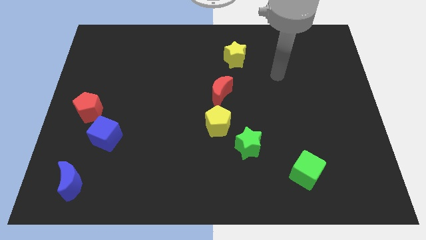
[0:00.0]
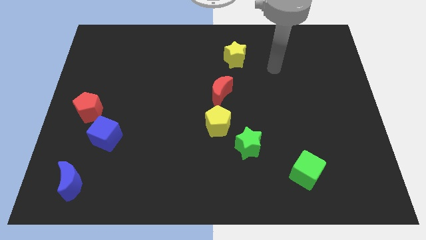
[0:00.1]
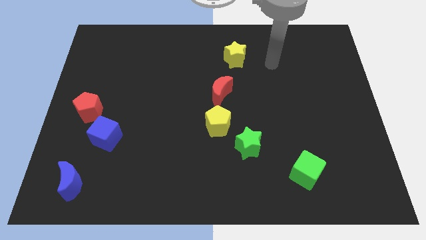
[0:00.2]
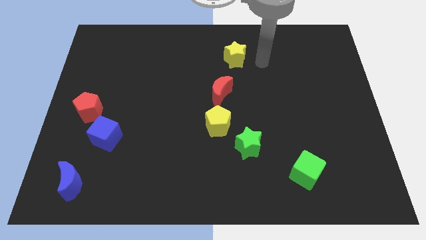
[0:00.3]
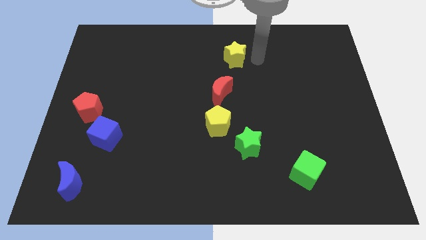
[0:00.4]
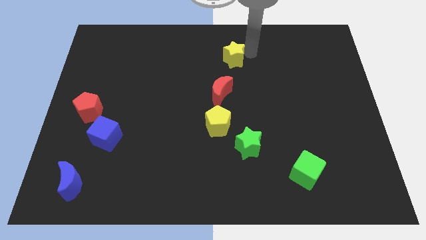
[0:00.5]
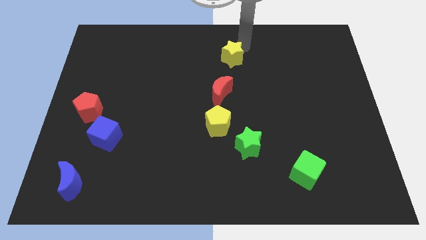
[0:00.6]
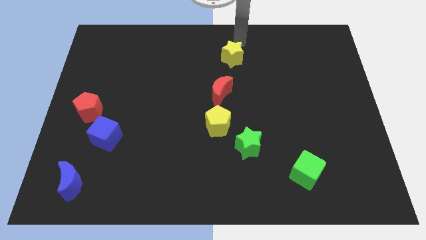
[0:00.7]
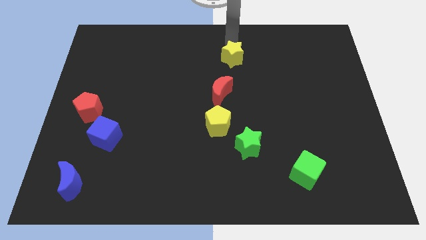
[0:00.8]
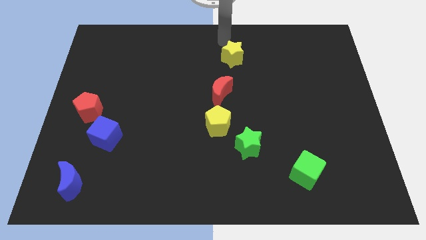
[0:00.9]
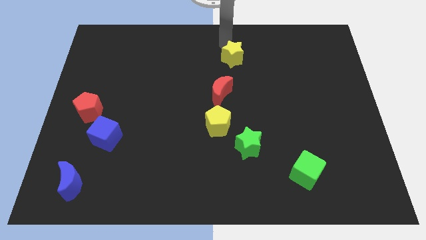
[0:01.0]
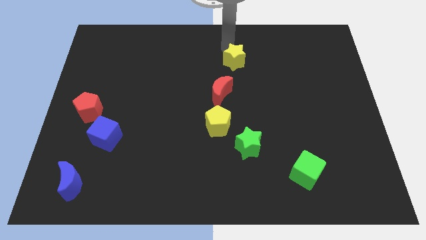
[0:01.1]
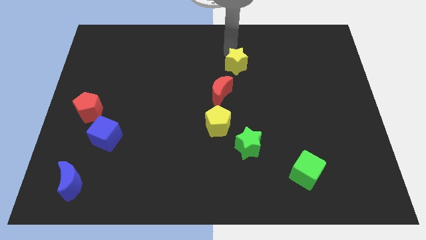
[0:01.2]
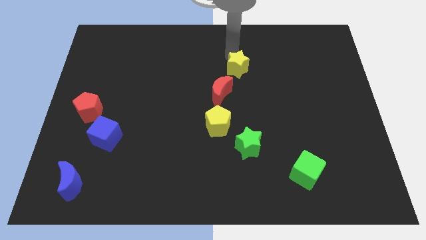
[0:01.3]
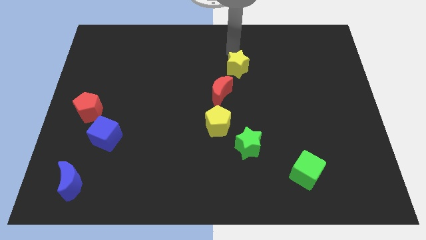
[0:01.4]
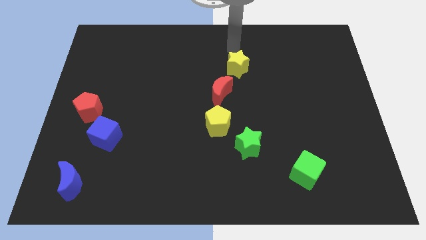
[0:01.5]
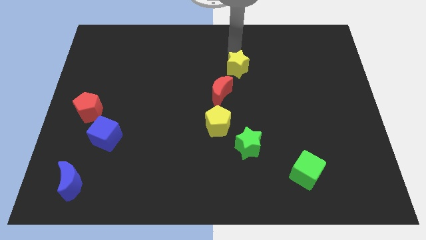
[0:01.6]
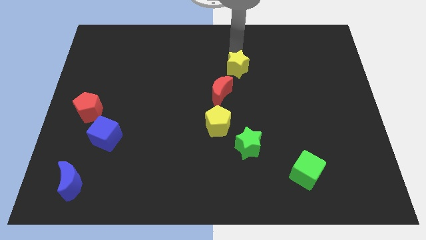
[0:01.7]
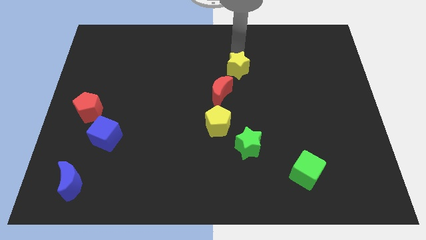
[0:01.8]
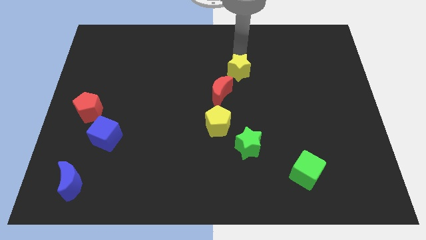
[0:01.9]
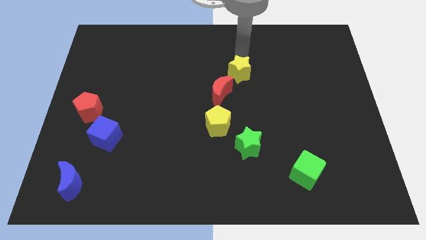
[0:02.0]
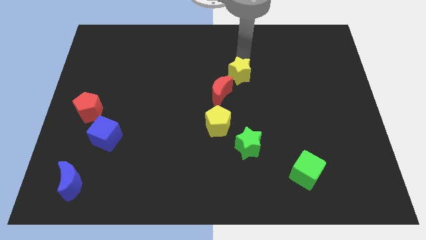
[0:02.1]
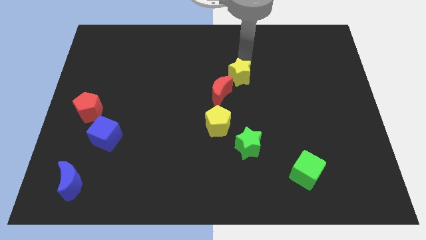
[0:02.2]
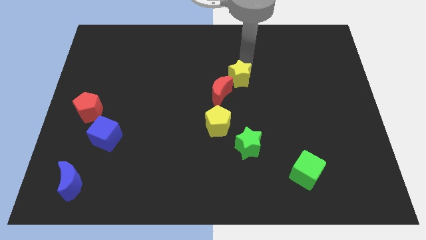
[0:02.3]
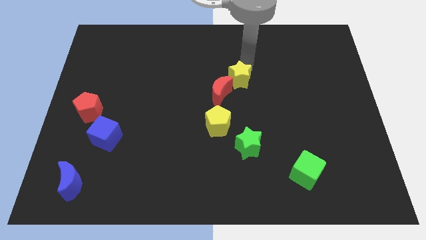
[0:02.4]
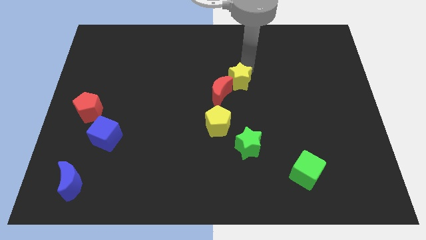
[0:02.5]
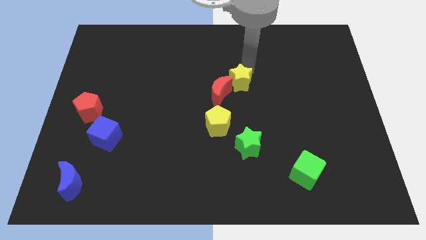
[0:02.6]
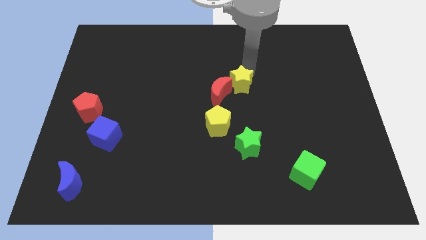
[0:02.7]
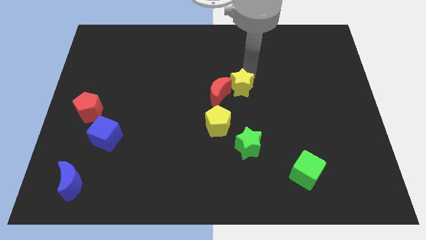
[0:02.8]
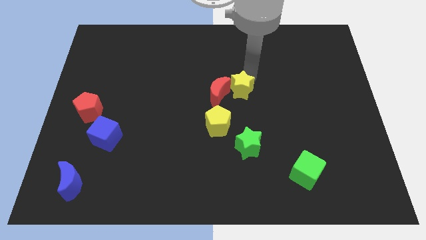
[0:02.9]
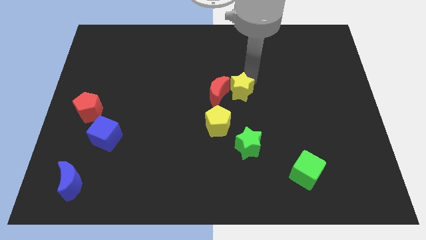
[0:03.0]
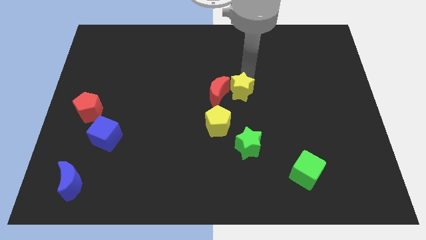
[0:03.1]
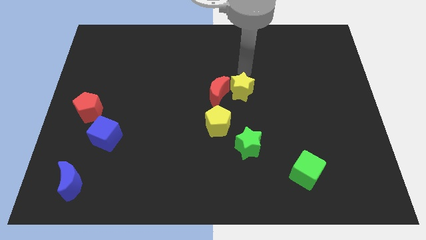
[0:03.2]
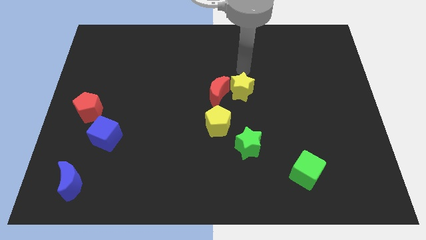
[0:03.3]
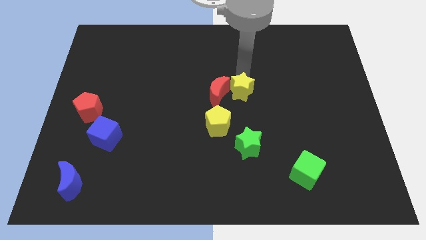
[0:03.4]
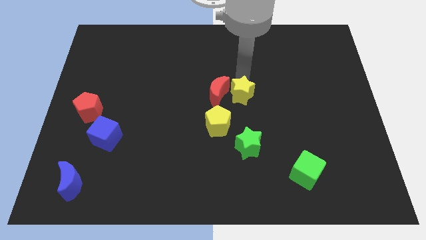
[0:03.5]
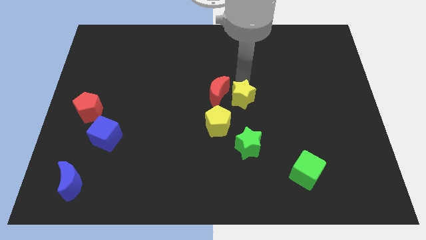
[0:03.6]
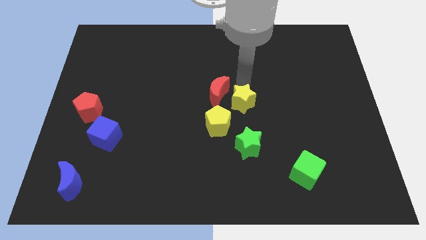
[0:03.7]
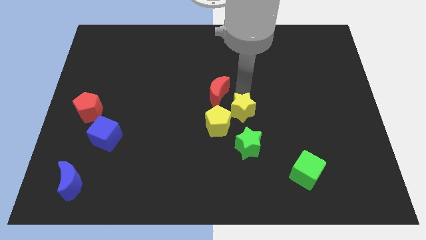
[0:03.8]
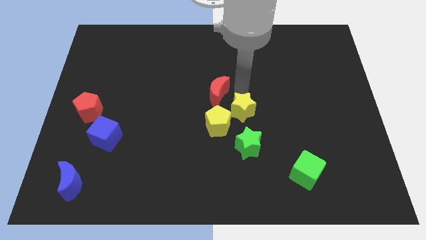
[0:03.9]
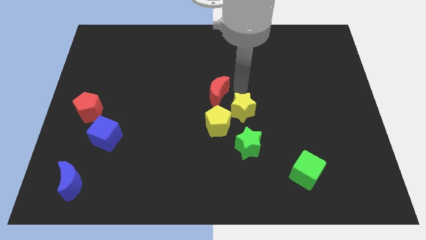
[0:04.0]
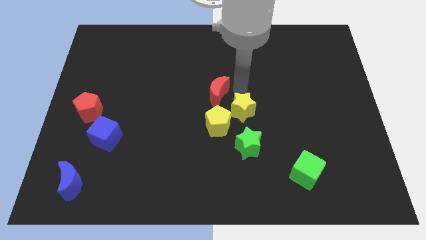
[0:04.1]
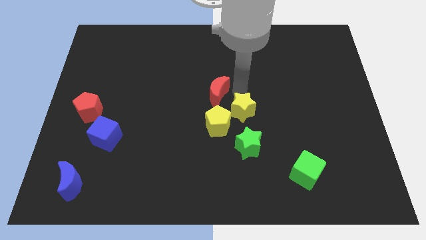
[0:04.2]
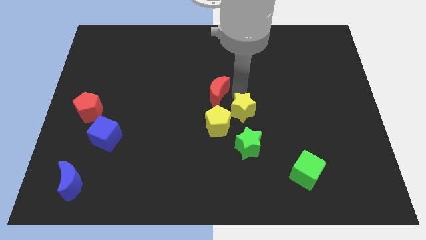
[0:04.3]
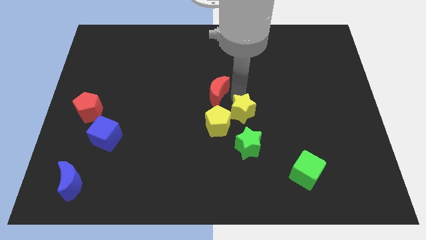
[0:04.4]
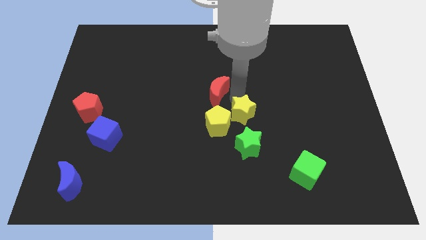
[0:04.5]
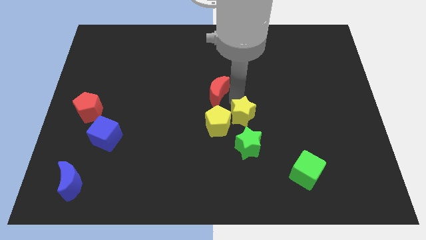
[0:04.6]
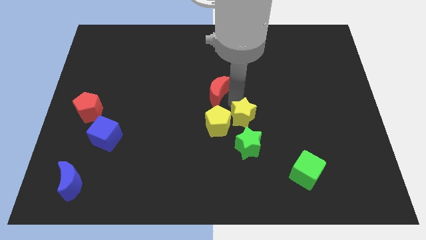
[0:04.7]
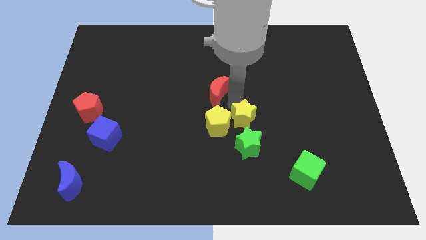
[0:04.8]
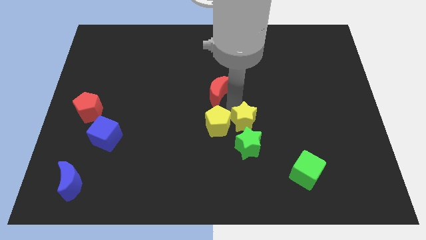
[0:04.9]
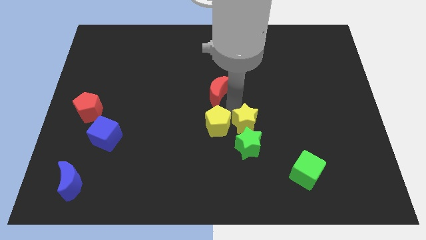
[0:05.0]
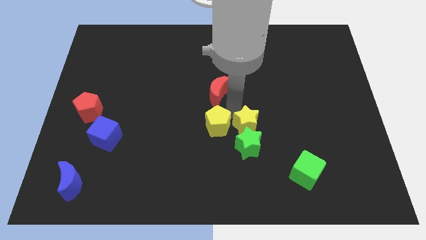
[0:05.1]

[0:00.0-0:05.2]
push the yellow star close to the green star

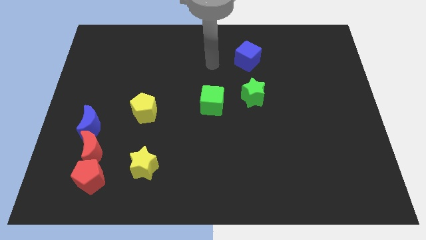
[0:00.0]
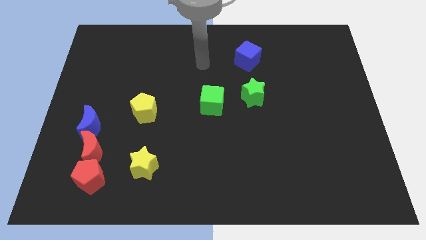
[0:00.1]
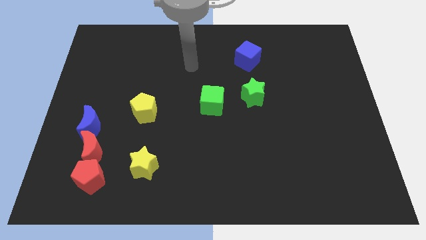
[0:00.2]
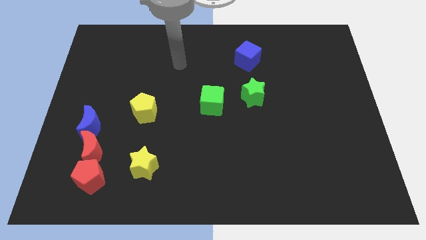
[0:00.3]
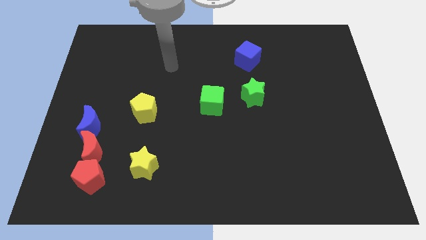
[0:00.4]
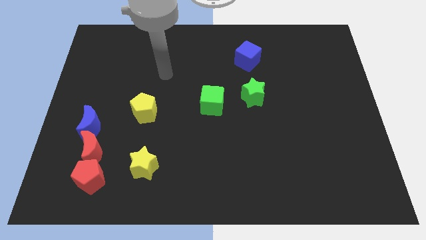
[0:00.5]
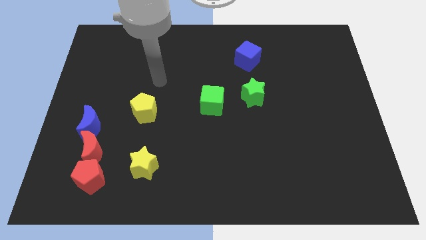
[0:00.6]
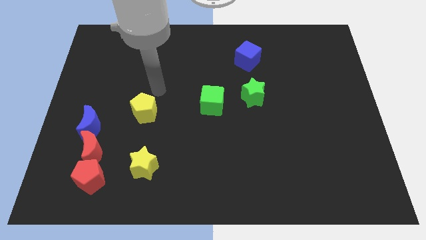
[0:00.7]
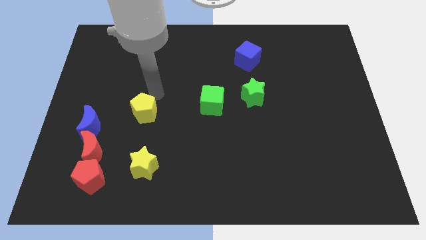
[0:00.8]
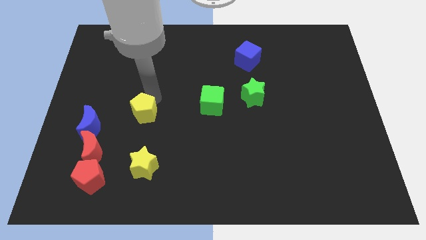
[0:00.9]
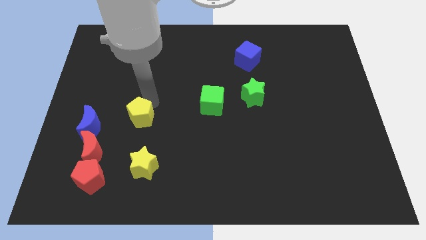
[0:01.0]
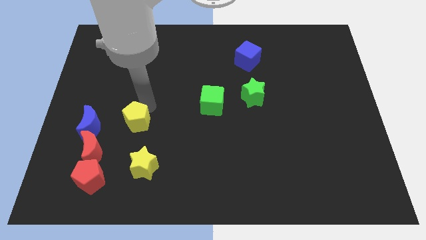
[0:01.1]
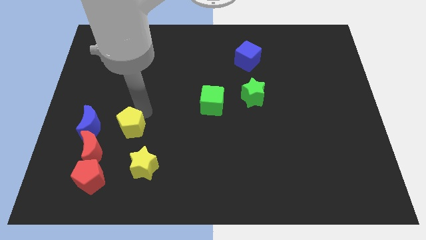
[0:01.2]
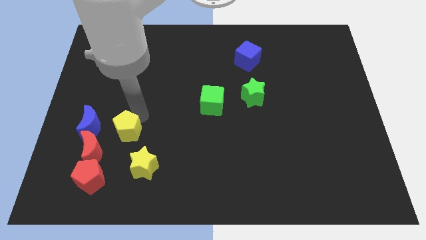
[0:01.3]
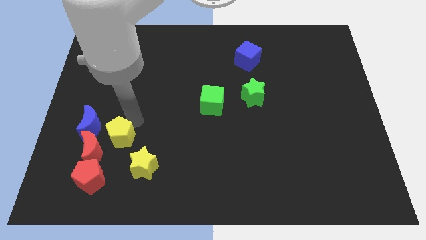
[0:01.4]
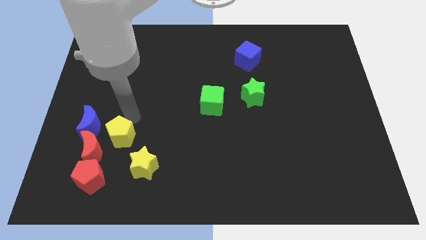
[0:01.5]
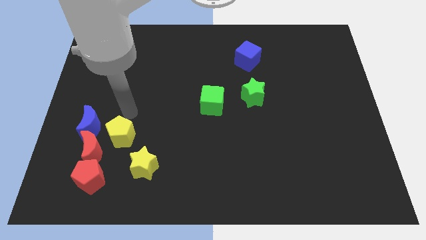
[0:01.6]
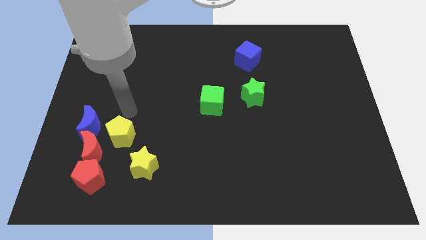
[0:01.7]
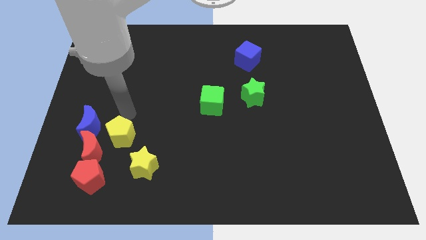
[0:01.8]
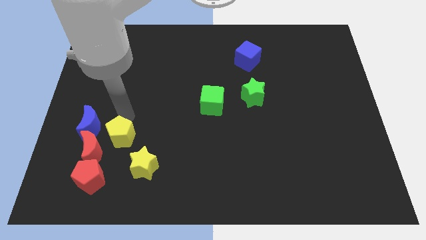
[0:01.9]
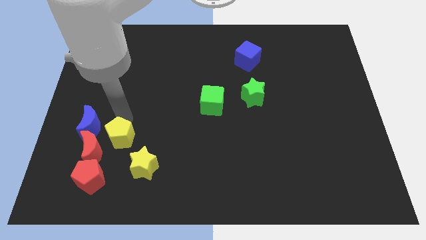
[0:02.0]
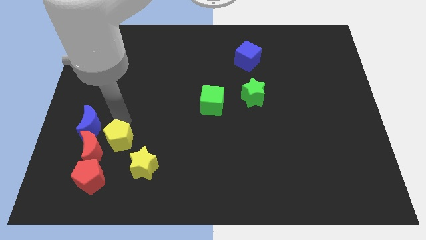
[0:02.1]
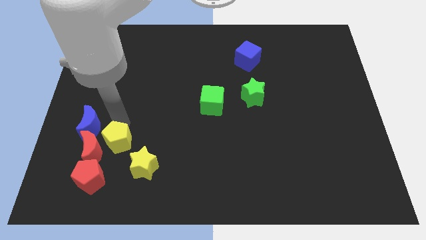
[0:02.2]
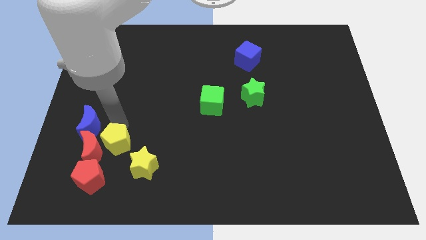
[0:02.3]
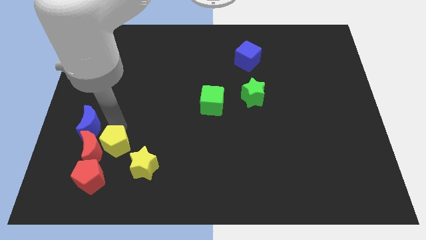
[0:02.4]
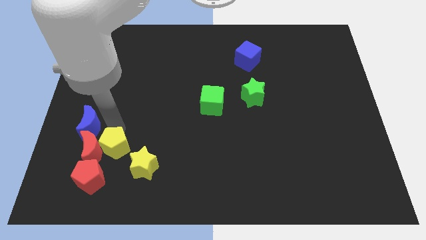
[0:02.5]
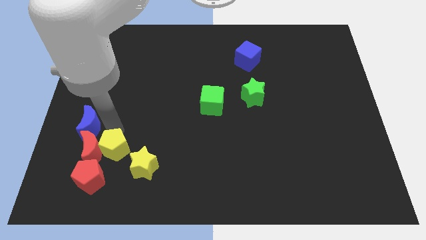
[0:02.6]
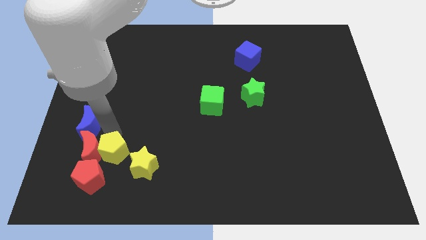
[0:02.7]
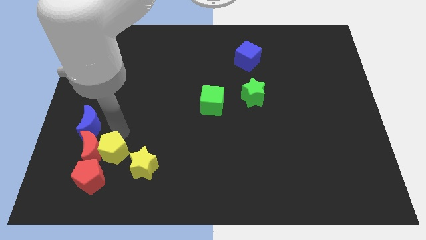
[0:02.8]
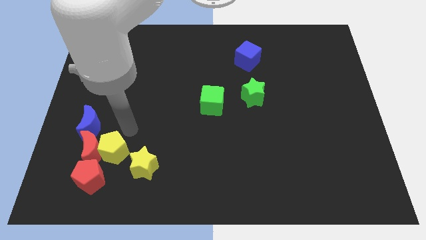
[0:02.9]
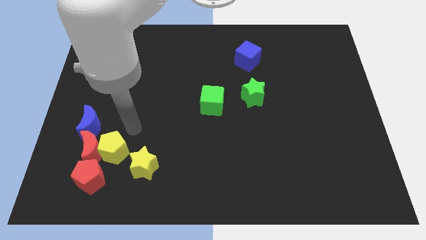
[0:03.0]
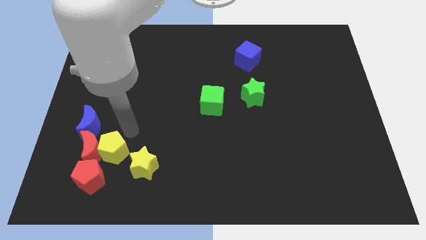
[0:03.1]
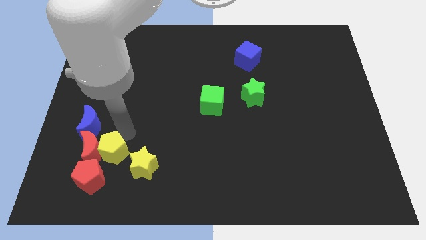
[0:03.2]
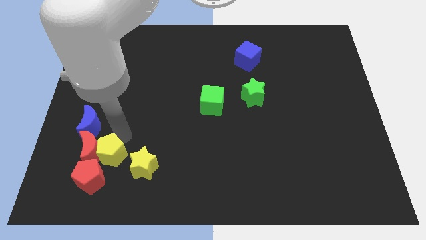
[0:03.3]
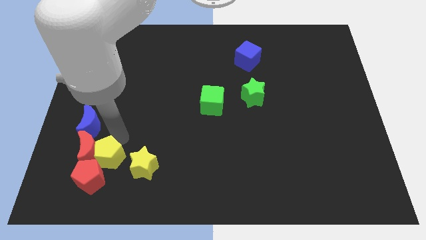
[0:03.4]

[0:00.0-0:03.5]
put the yellow pentagon to the red pentagon
